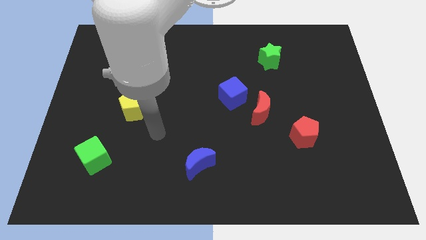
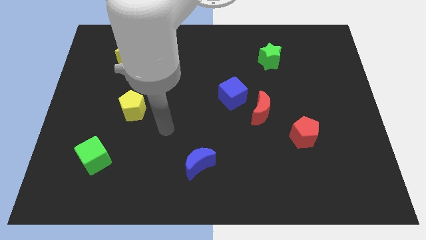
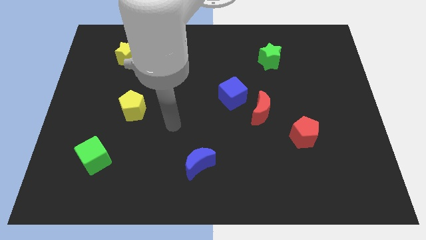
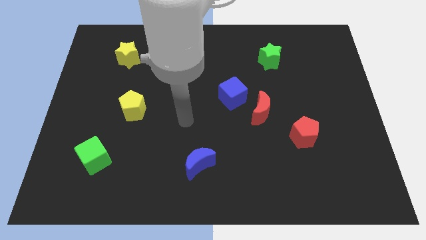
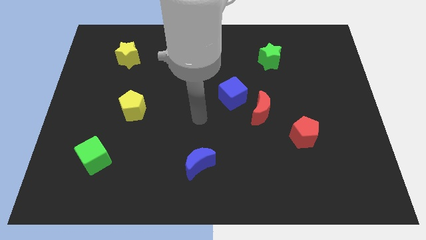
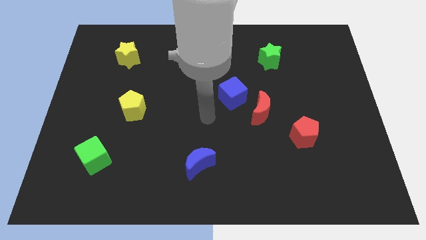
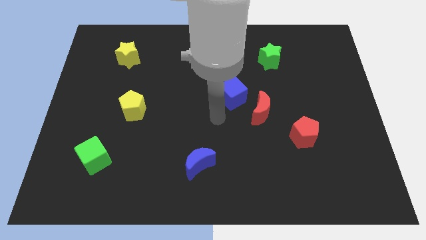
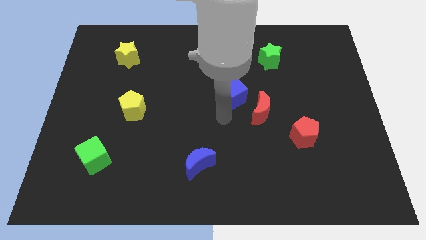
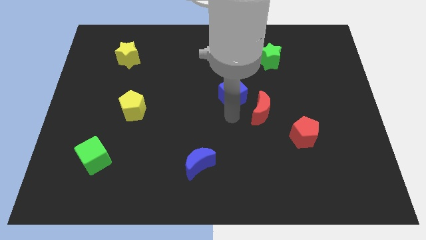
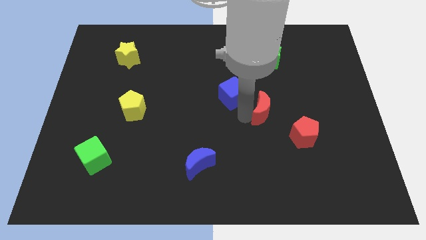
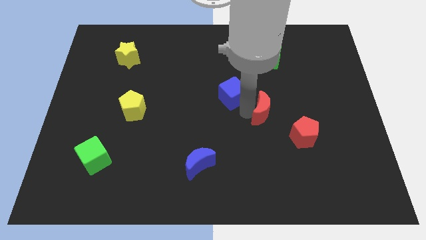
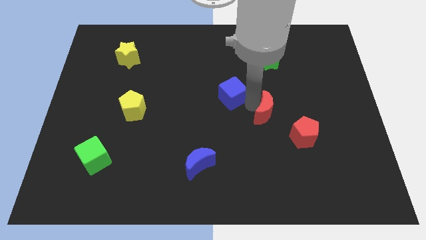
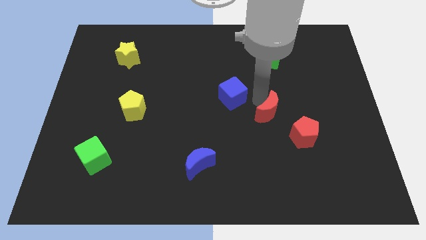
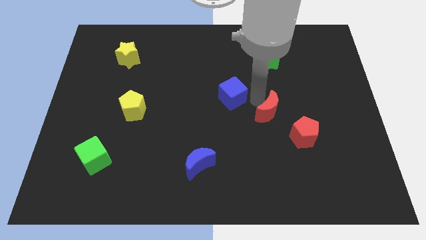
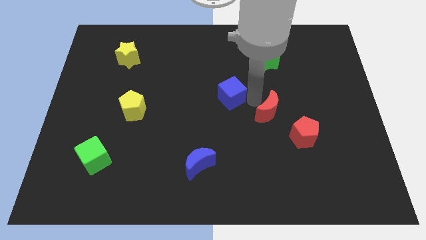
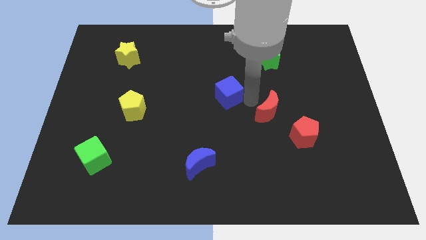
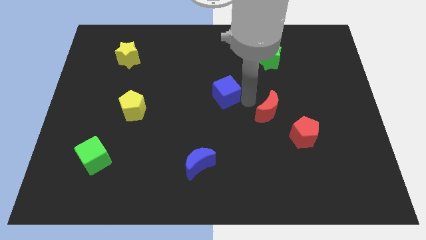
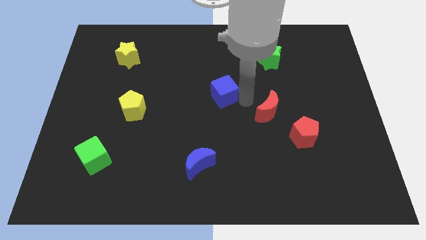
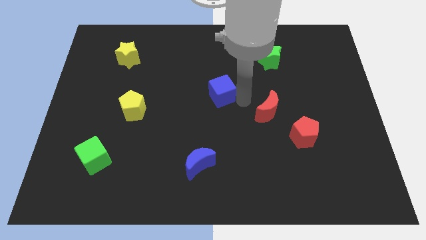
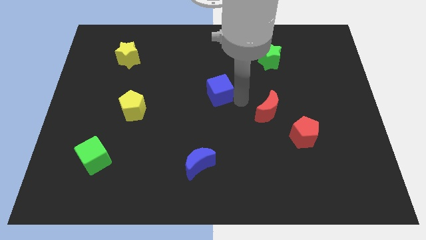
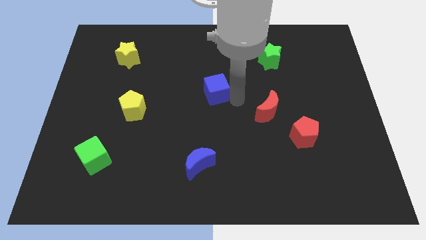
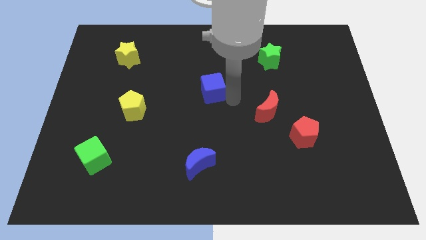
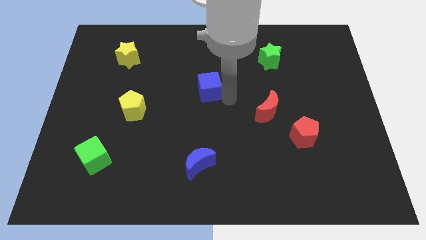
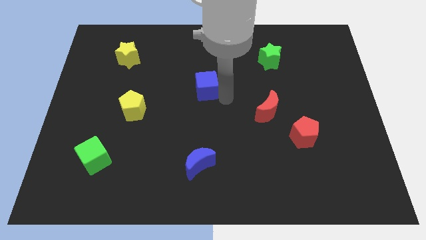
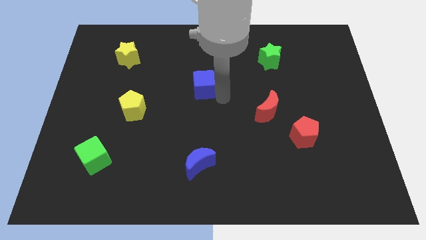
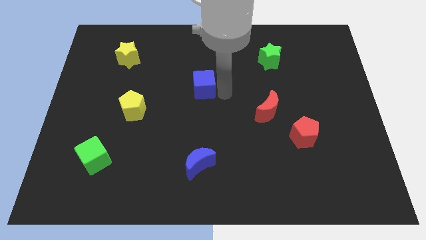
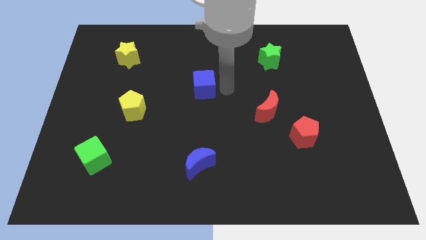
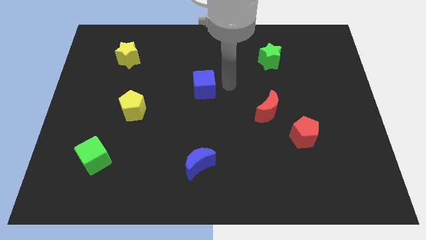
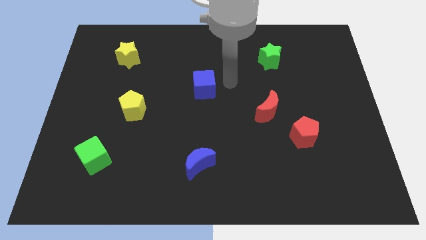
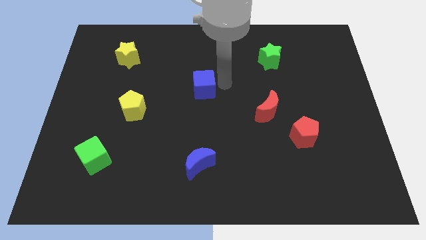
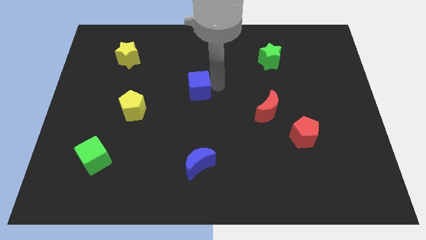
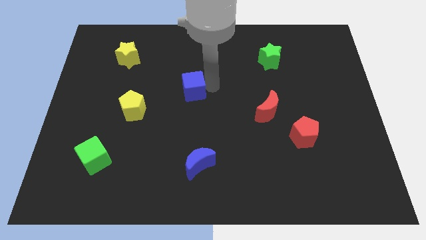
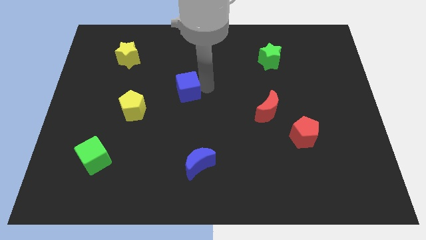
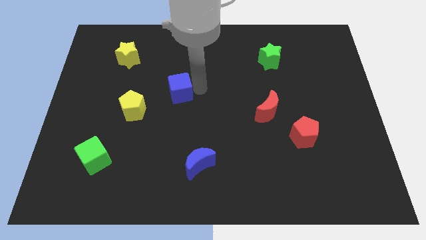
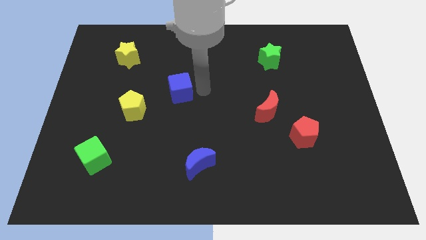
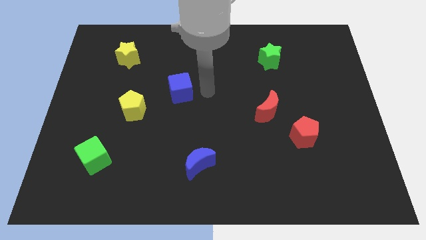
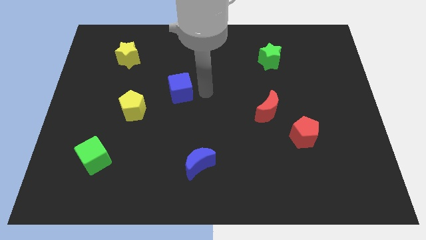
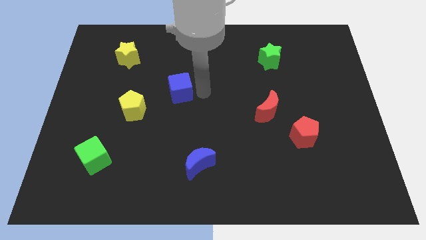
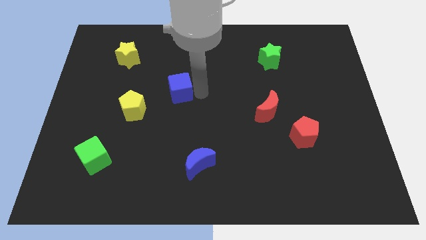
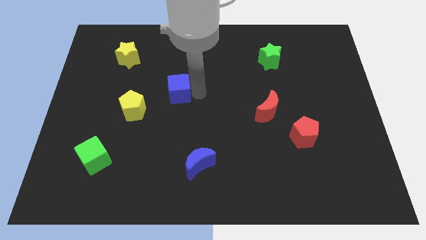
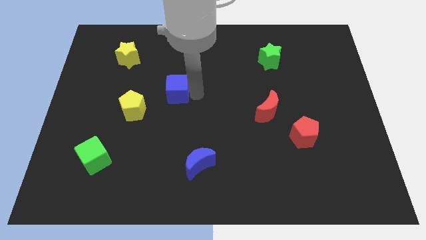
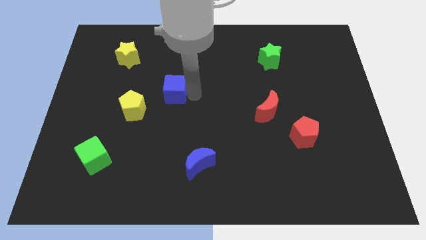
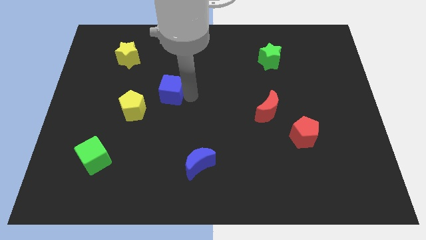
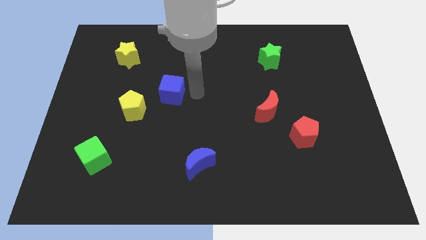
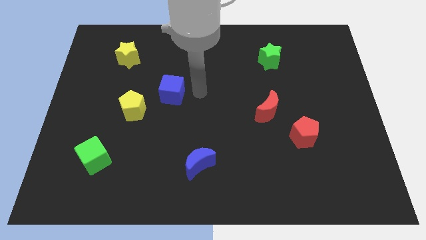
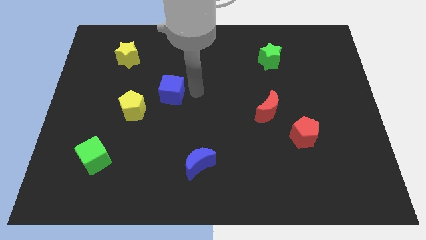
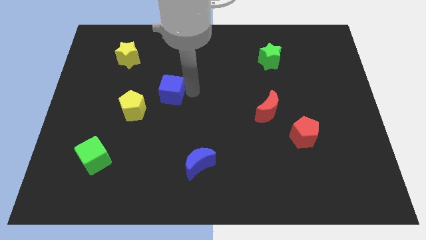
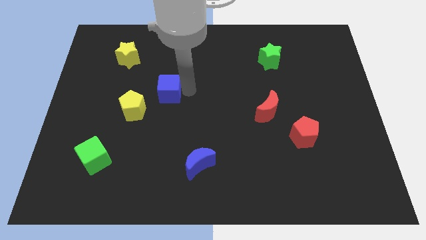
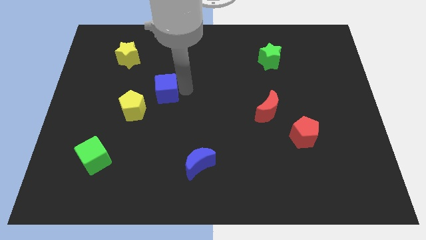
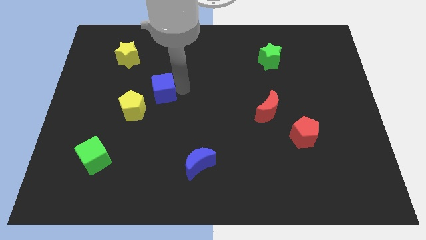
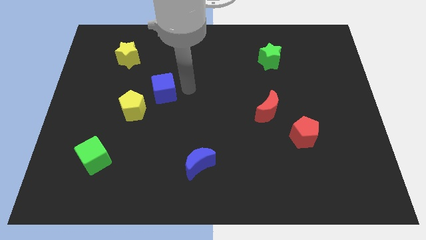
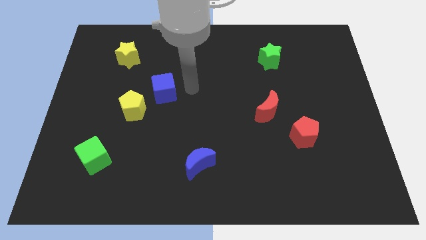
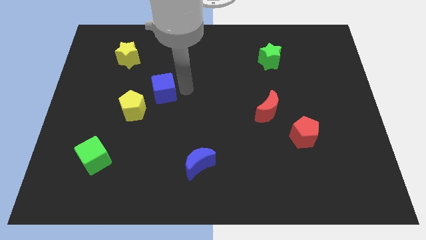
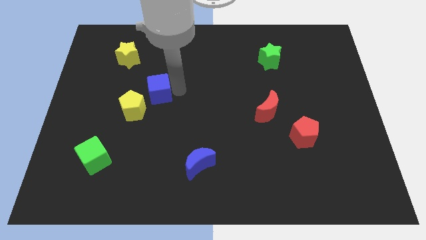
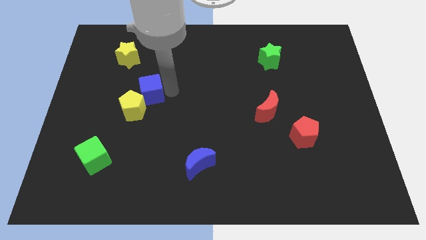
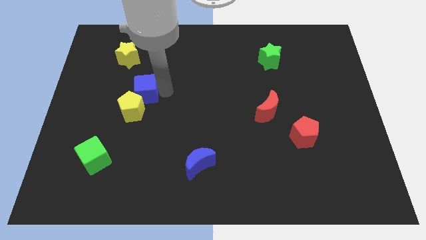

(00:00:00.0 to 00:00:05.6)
slide the blue cube to the left

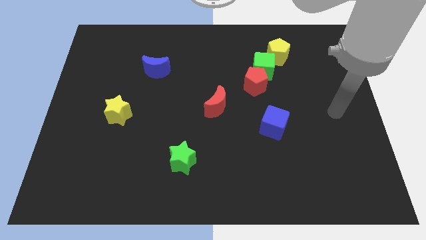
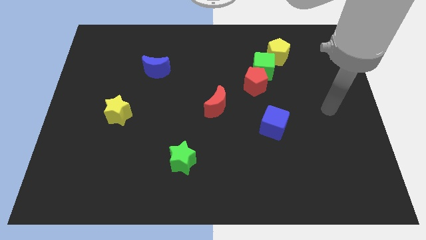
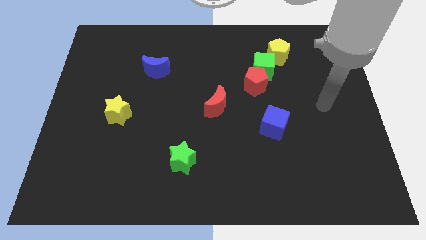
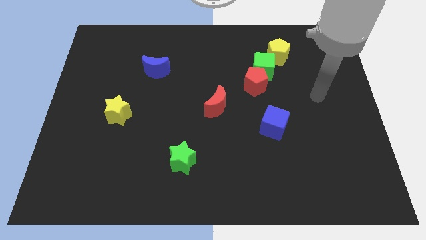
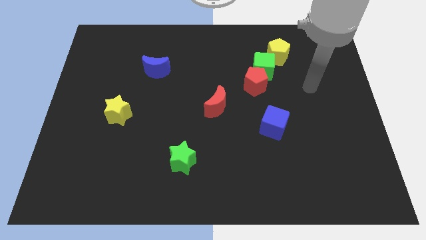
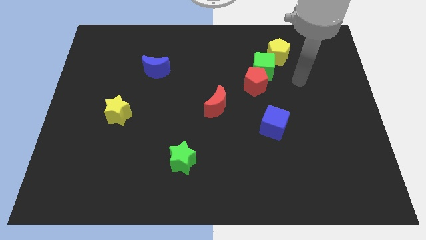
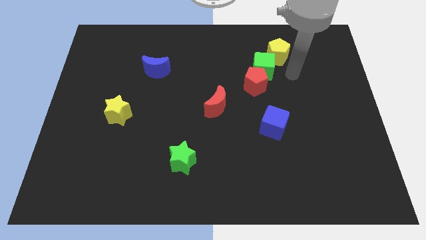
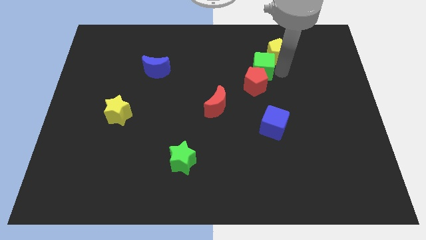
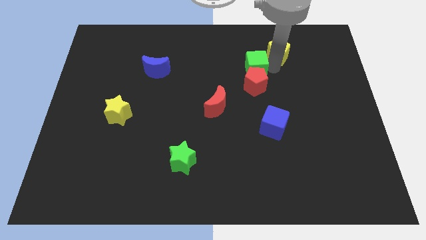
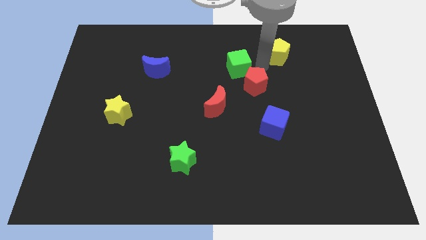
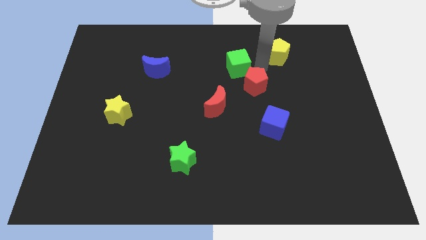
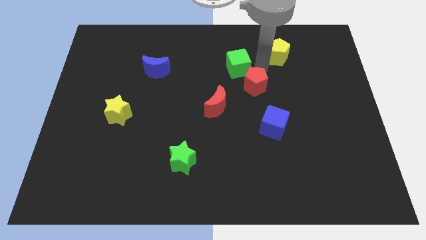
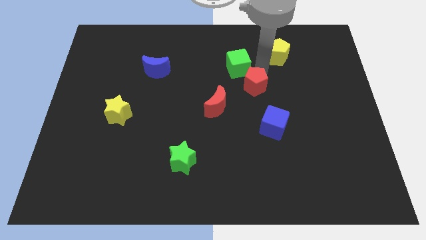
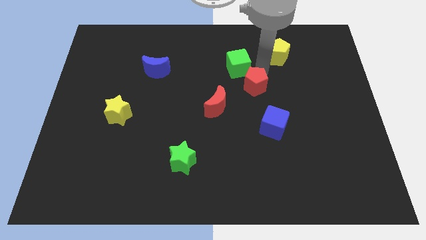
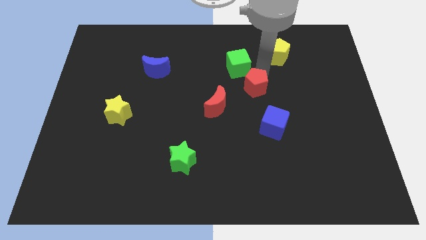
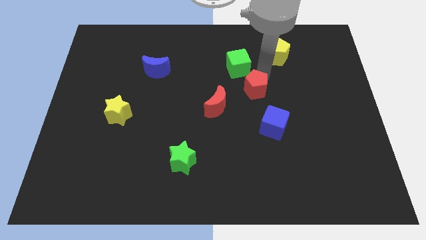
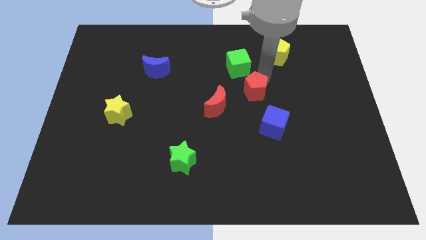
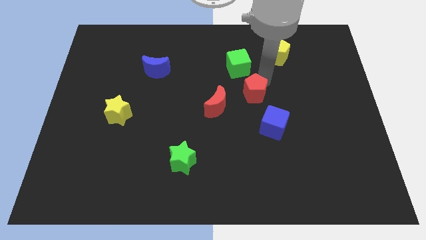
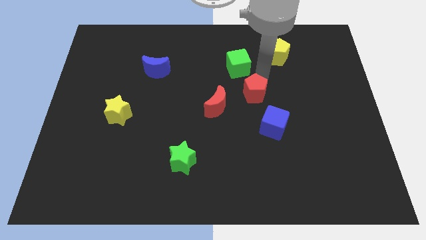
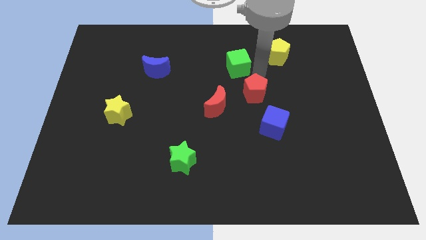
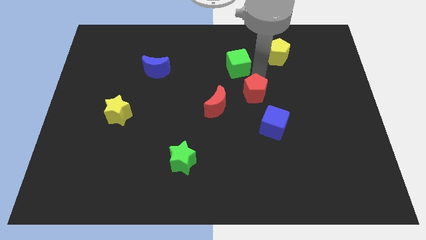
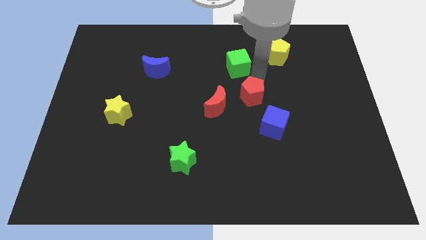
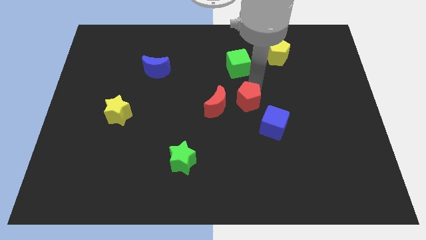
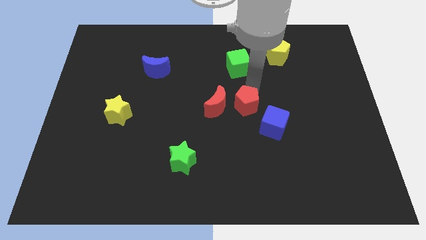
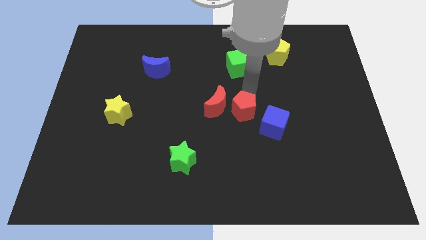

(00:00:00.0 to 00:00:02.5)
slightly push the red pentagon down
